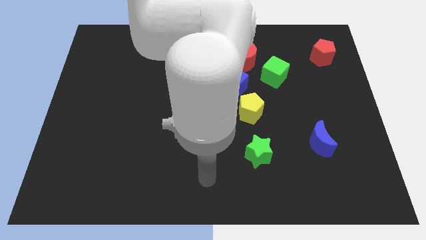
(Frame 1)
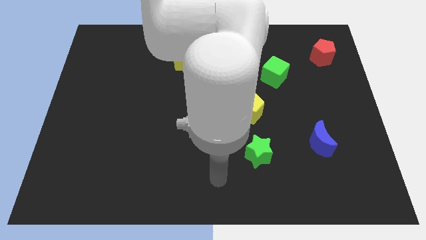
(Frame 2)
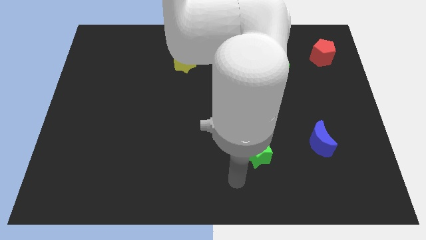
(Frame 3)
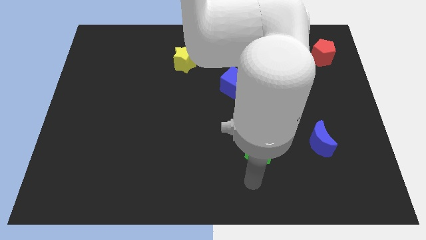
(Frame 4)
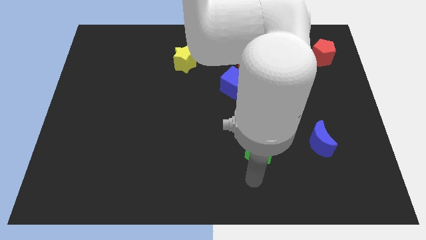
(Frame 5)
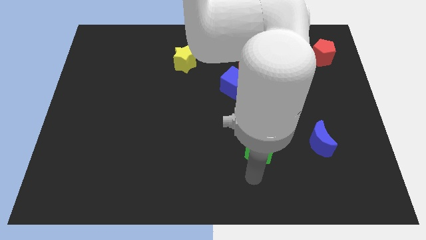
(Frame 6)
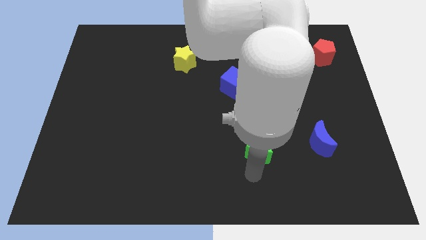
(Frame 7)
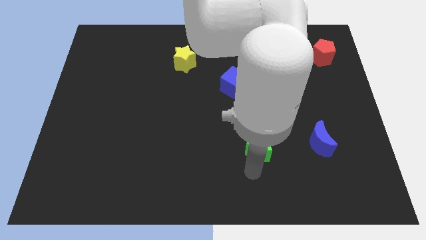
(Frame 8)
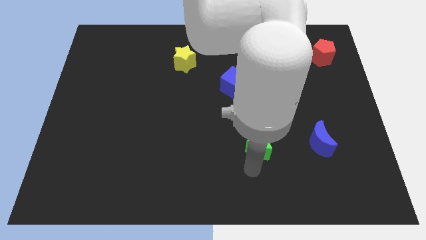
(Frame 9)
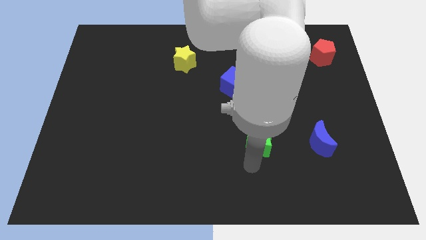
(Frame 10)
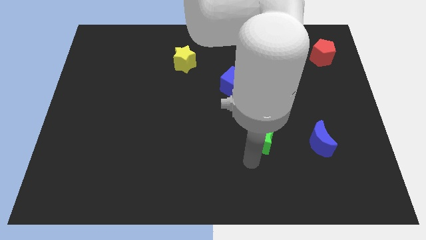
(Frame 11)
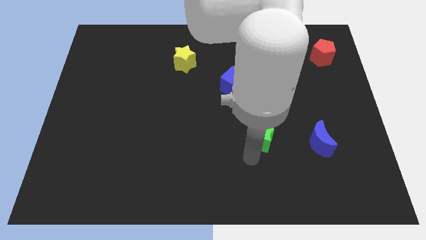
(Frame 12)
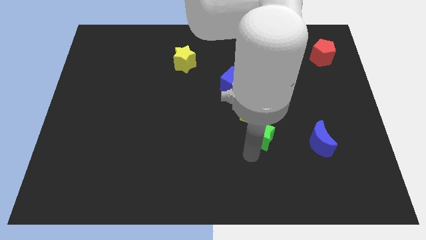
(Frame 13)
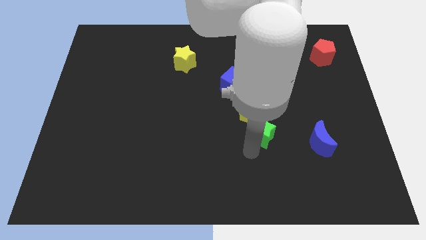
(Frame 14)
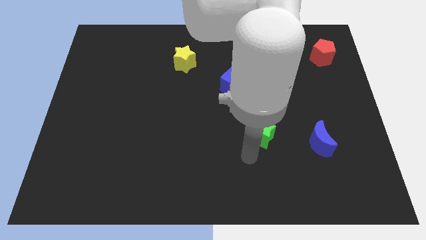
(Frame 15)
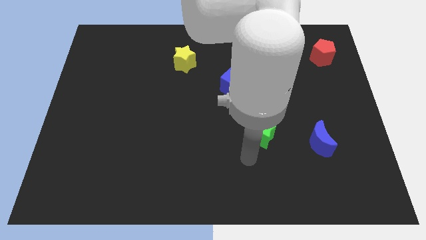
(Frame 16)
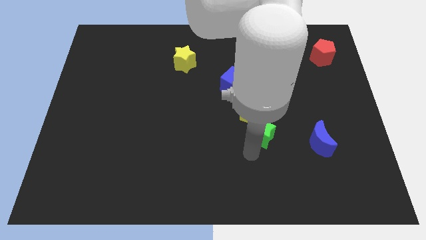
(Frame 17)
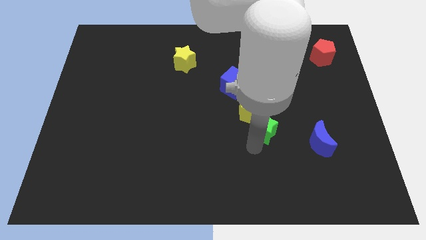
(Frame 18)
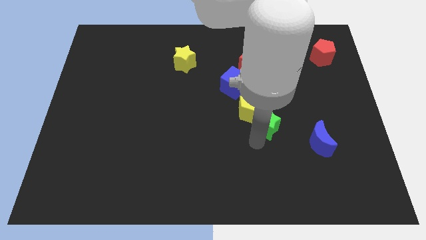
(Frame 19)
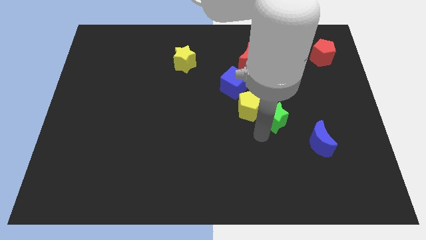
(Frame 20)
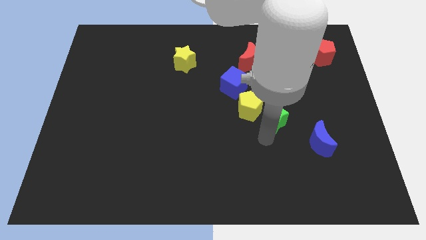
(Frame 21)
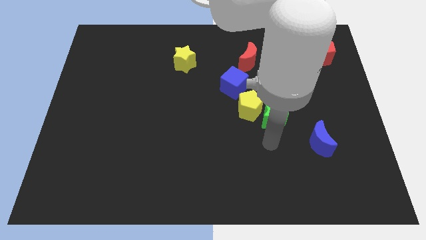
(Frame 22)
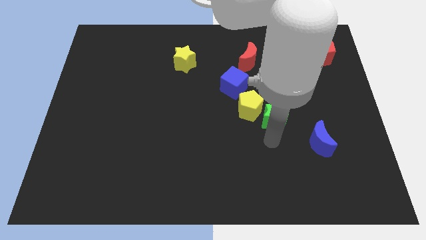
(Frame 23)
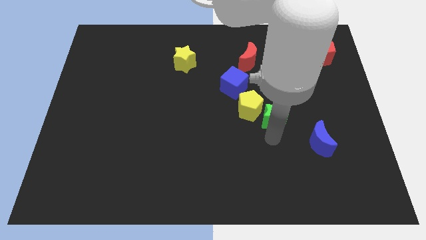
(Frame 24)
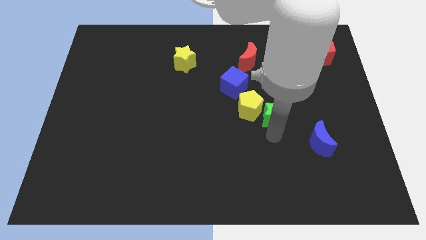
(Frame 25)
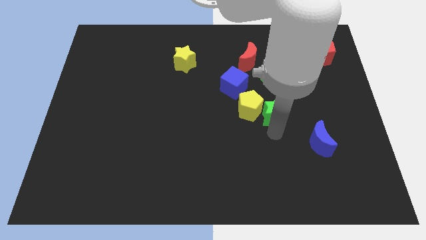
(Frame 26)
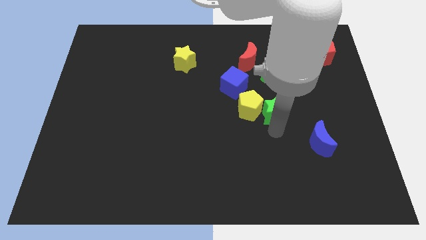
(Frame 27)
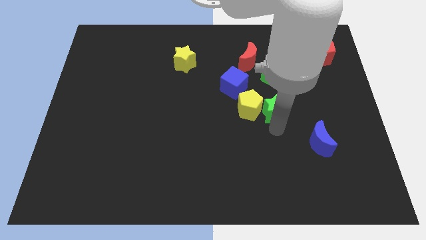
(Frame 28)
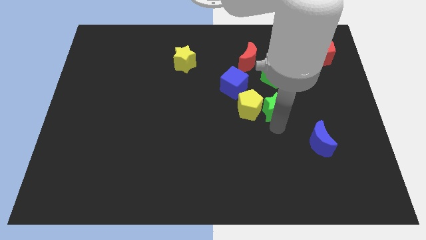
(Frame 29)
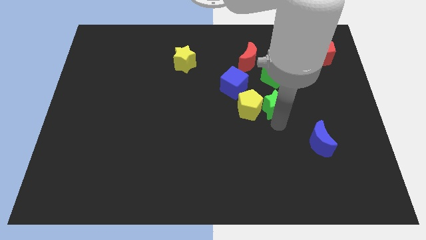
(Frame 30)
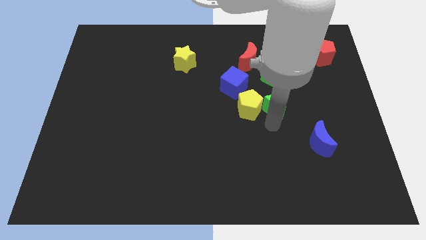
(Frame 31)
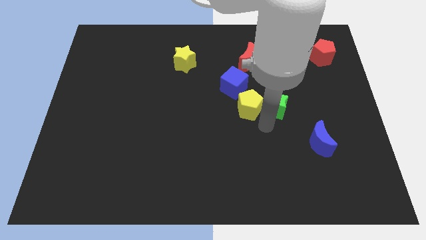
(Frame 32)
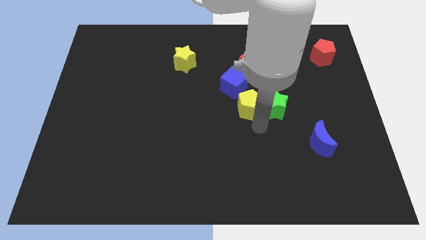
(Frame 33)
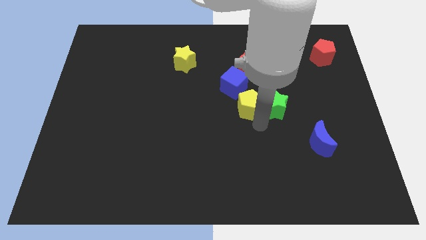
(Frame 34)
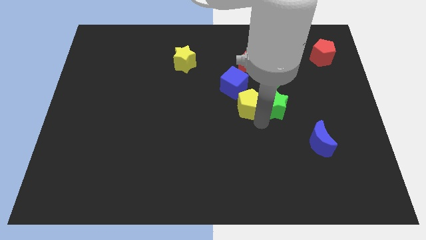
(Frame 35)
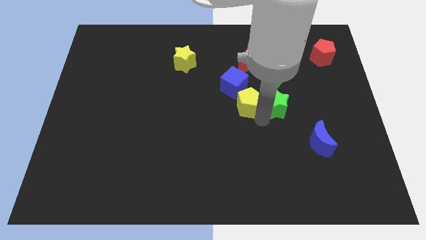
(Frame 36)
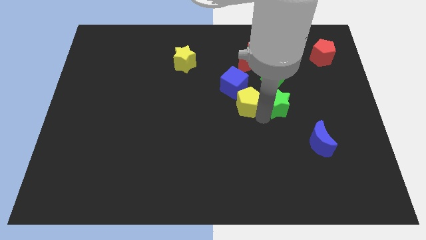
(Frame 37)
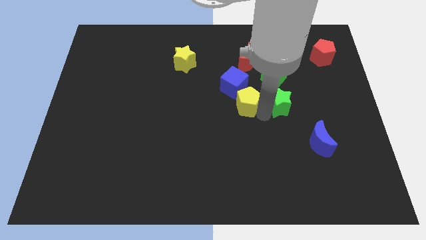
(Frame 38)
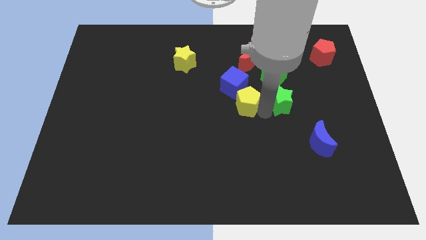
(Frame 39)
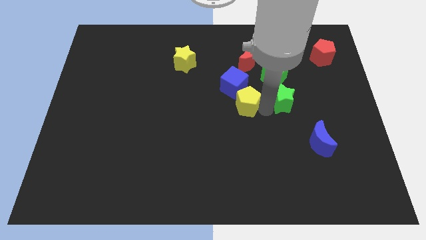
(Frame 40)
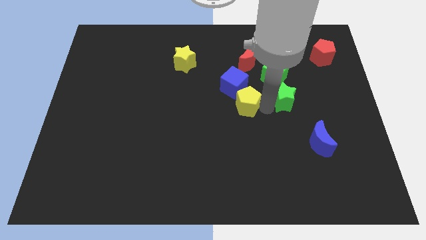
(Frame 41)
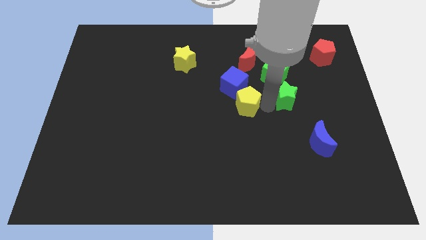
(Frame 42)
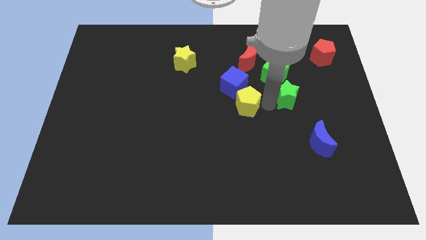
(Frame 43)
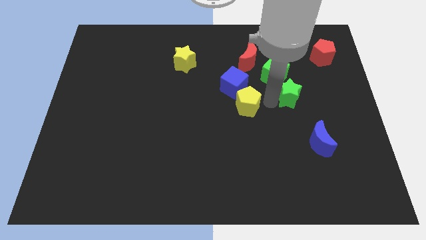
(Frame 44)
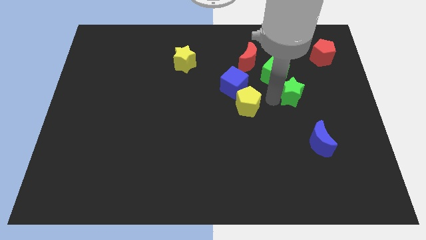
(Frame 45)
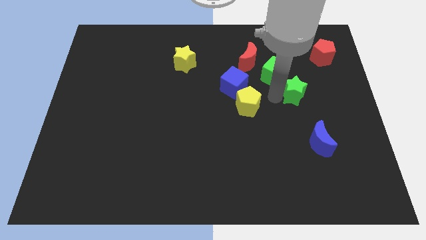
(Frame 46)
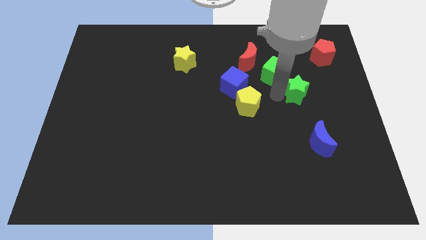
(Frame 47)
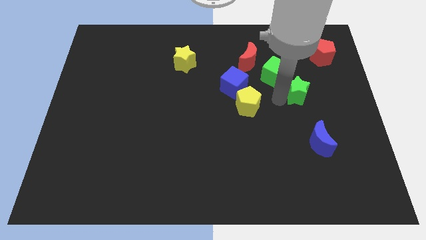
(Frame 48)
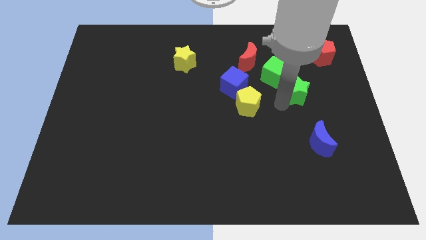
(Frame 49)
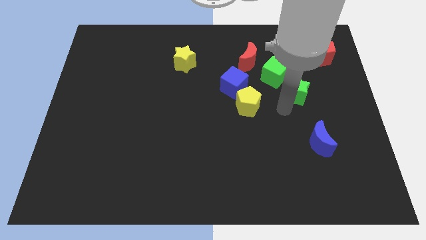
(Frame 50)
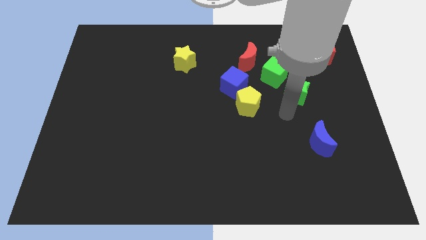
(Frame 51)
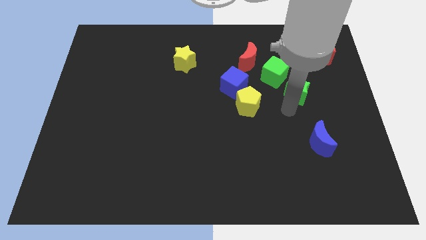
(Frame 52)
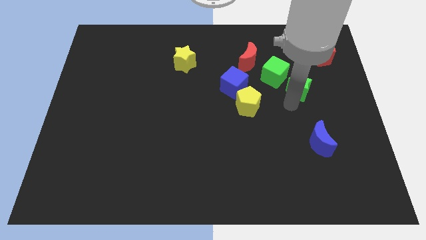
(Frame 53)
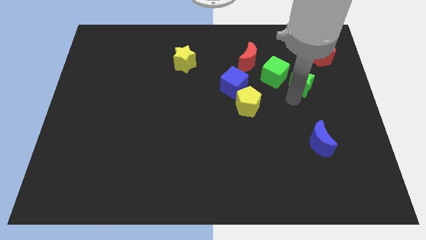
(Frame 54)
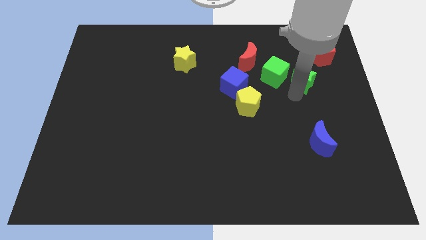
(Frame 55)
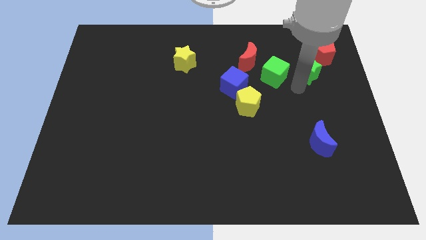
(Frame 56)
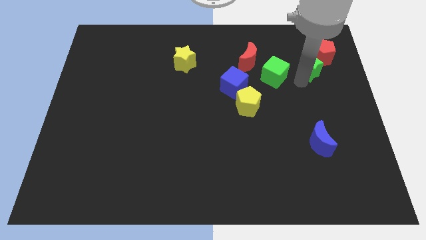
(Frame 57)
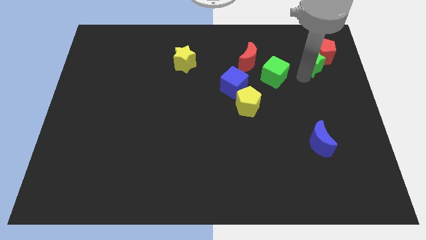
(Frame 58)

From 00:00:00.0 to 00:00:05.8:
move the green star towards the red pentagon

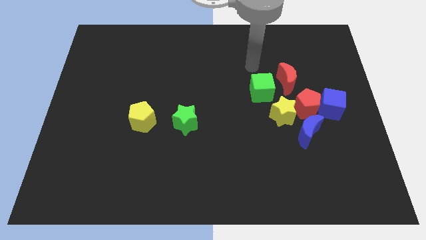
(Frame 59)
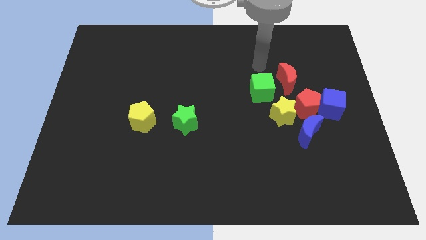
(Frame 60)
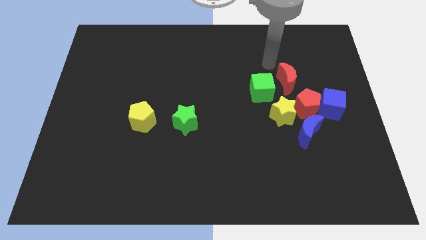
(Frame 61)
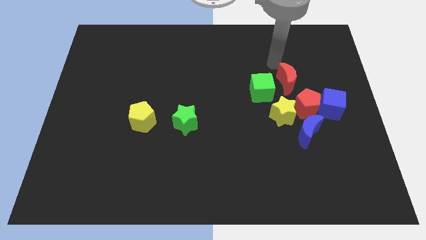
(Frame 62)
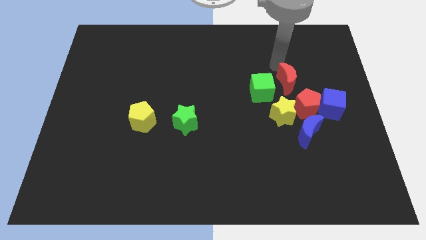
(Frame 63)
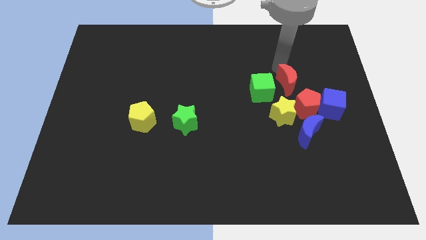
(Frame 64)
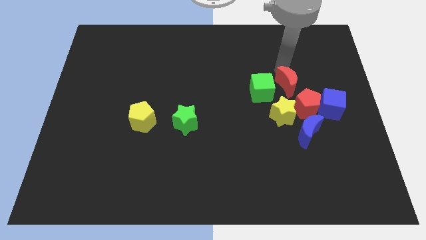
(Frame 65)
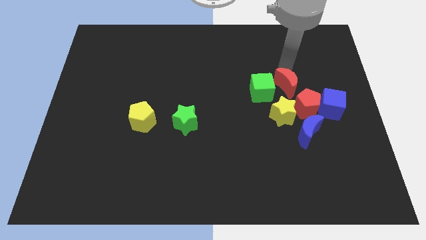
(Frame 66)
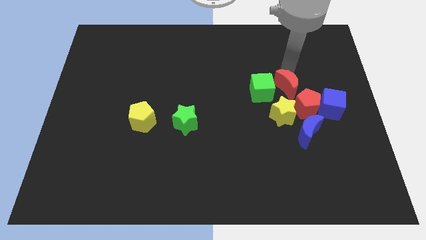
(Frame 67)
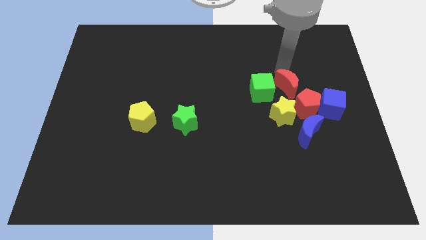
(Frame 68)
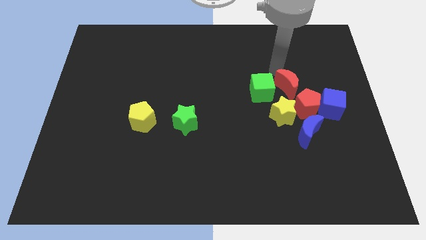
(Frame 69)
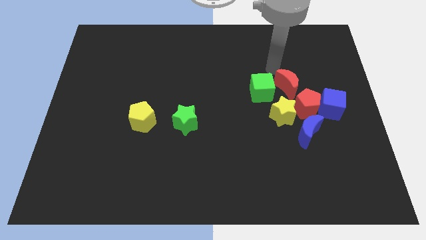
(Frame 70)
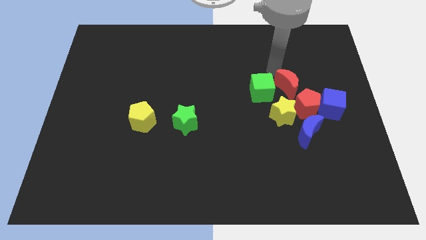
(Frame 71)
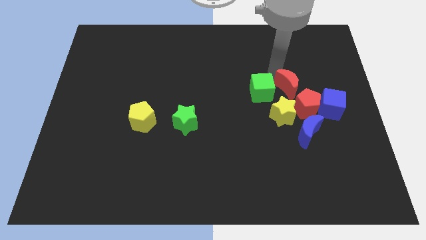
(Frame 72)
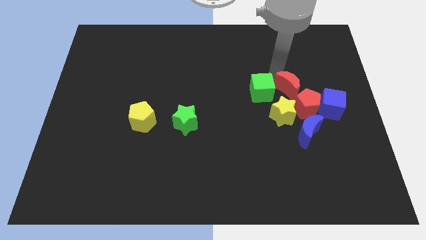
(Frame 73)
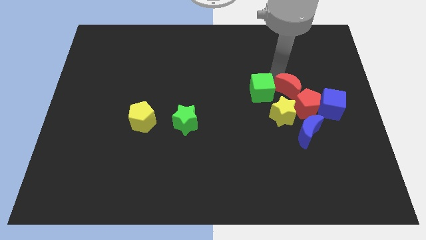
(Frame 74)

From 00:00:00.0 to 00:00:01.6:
slide the red moon close to the red pentagon
